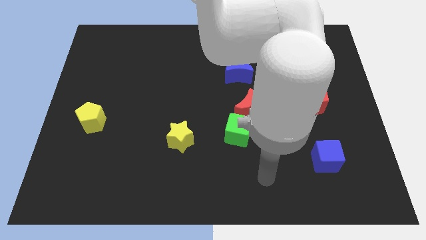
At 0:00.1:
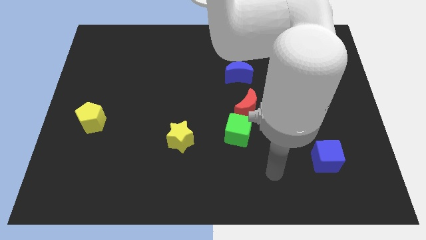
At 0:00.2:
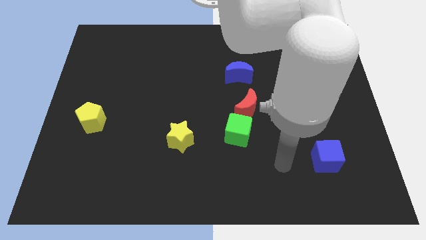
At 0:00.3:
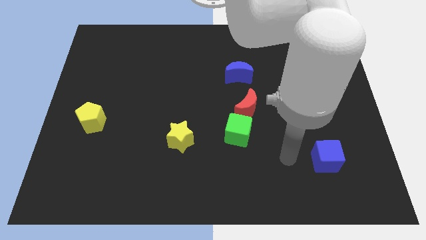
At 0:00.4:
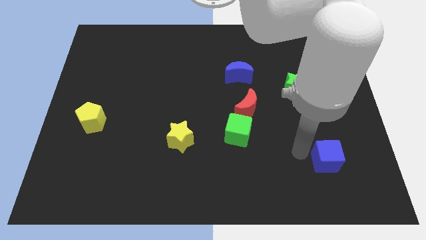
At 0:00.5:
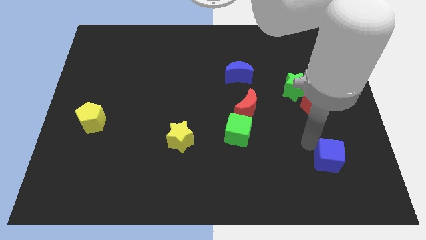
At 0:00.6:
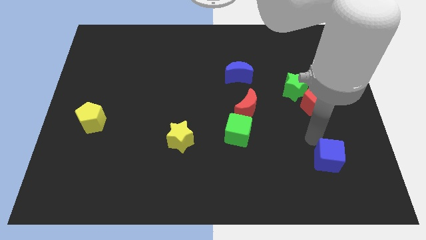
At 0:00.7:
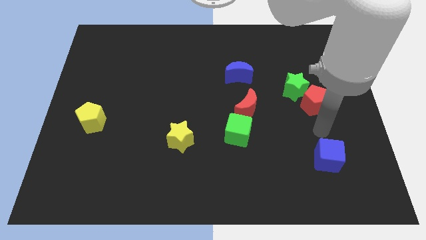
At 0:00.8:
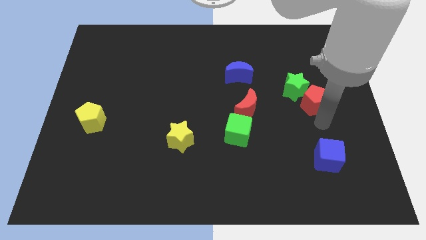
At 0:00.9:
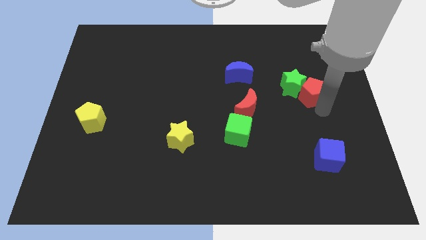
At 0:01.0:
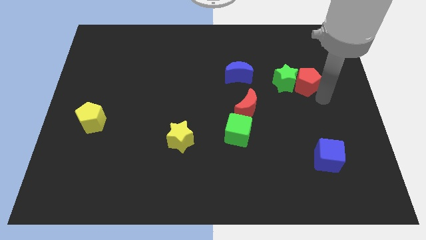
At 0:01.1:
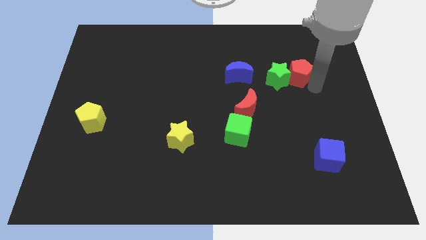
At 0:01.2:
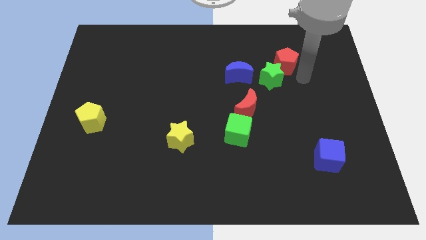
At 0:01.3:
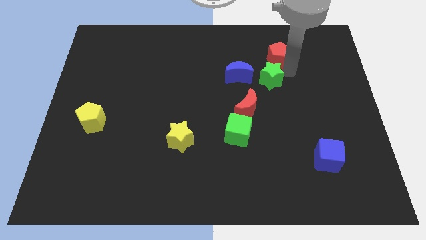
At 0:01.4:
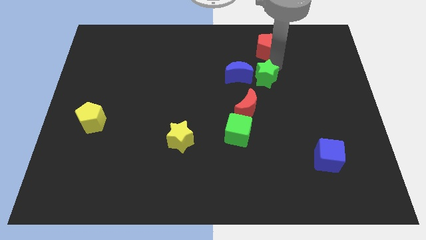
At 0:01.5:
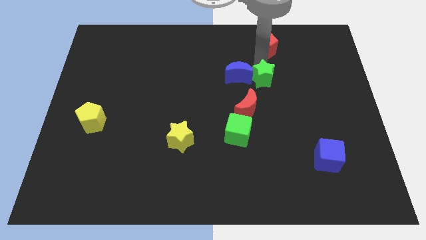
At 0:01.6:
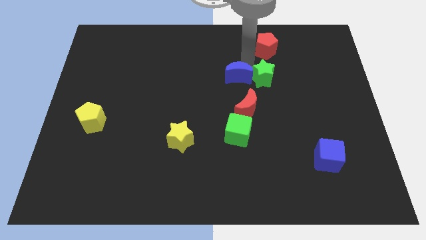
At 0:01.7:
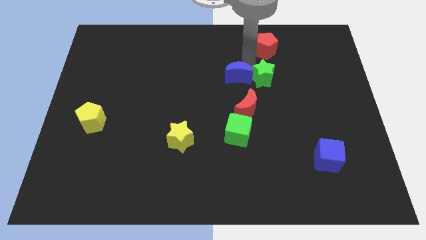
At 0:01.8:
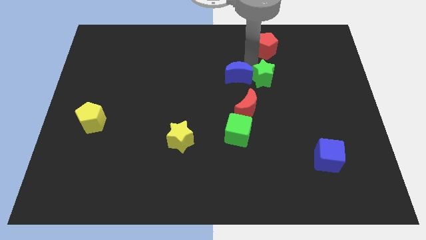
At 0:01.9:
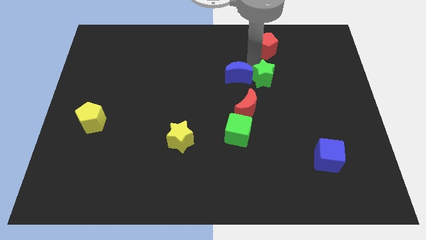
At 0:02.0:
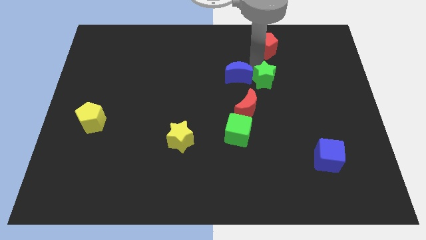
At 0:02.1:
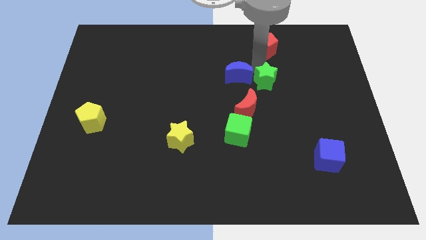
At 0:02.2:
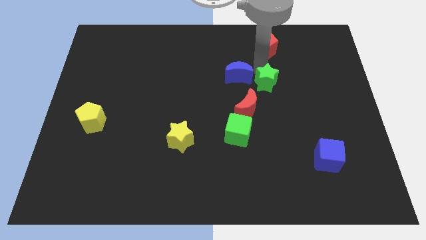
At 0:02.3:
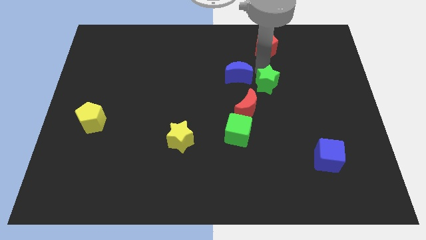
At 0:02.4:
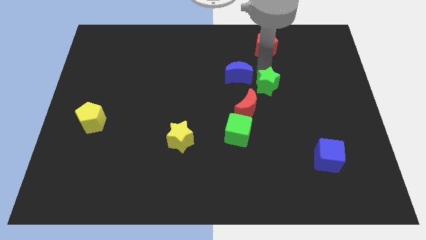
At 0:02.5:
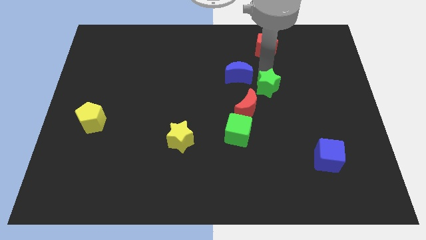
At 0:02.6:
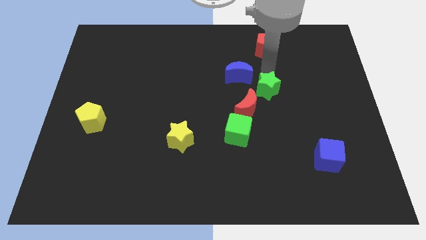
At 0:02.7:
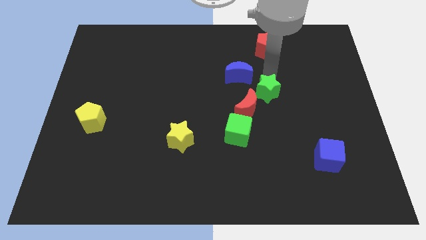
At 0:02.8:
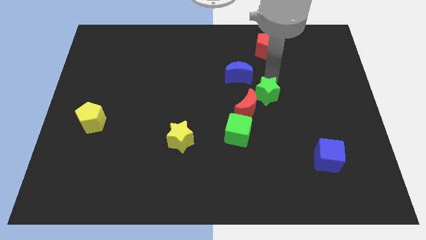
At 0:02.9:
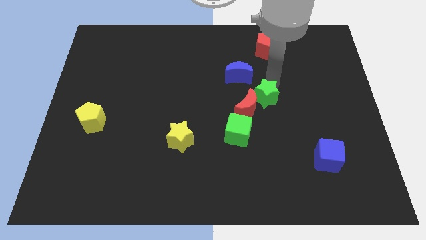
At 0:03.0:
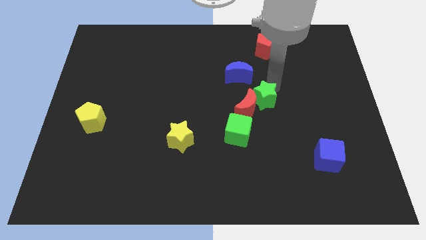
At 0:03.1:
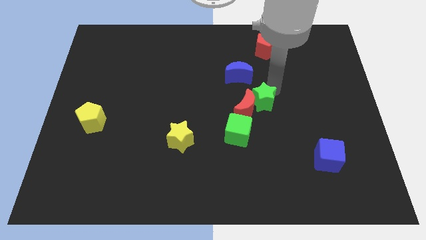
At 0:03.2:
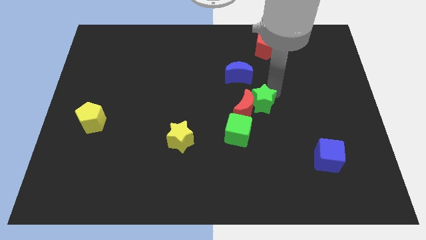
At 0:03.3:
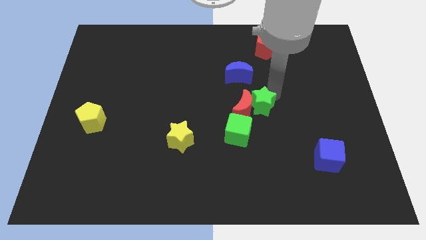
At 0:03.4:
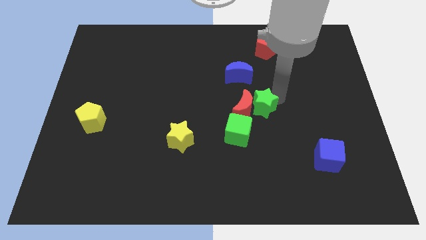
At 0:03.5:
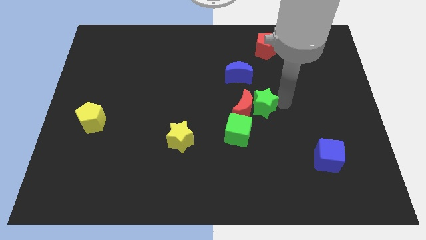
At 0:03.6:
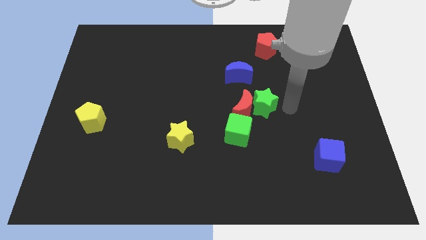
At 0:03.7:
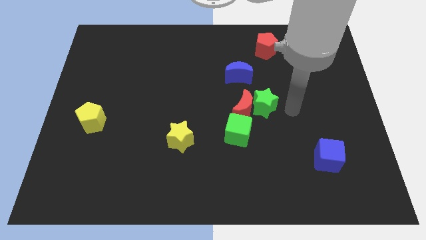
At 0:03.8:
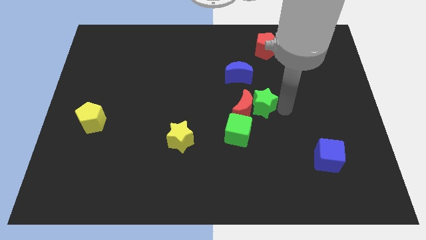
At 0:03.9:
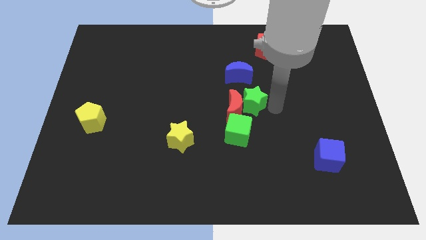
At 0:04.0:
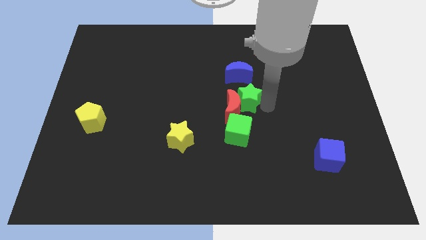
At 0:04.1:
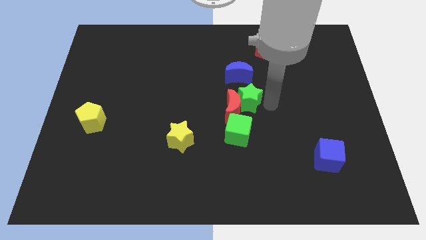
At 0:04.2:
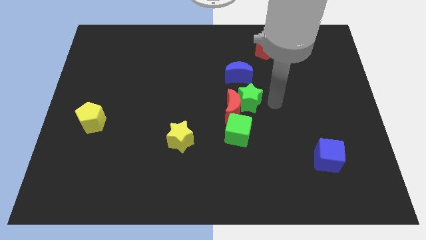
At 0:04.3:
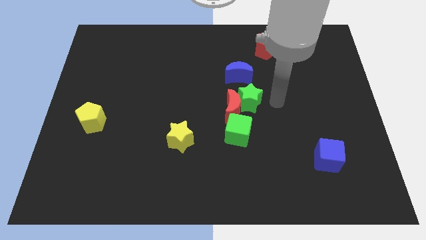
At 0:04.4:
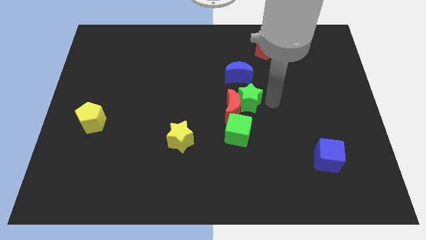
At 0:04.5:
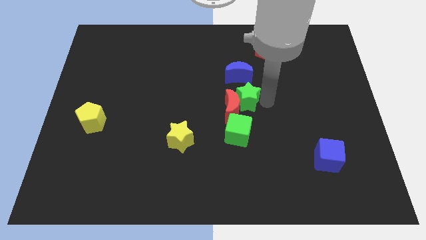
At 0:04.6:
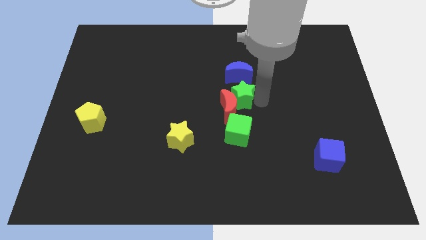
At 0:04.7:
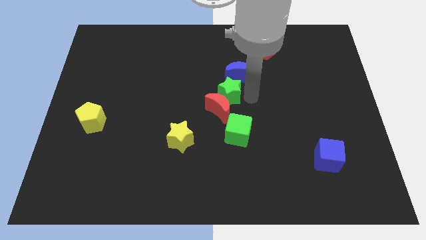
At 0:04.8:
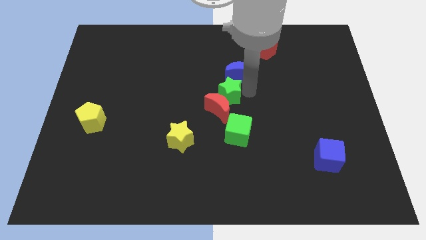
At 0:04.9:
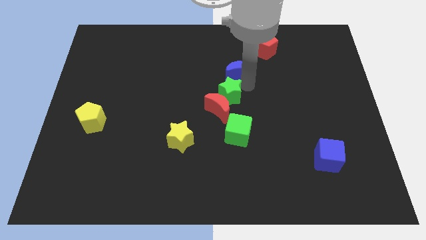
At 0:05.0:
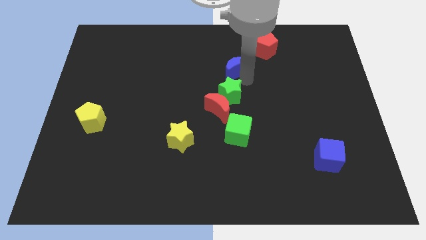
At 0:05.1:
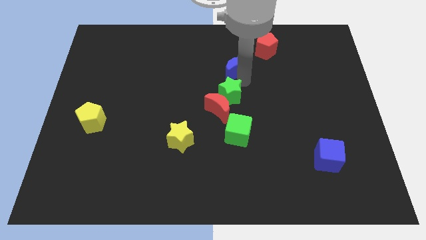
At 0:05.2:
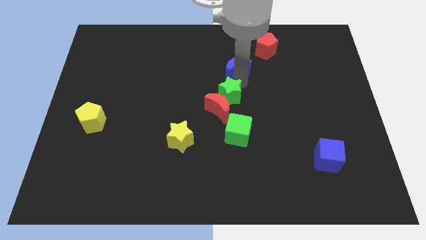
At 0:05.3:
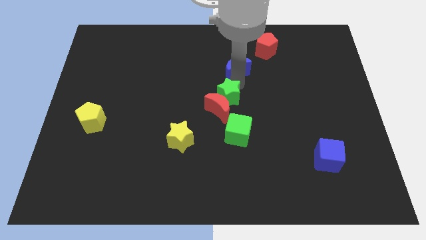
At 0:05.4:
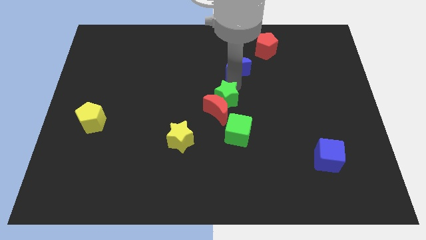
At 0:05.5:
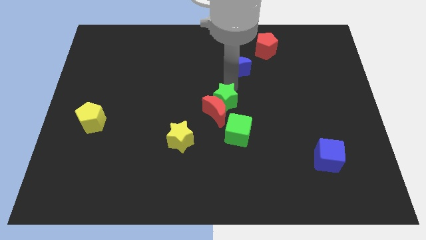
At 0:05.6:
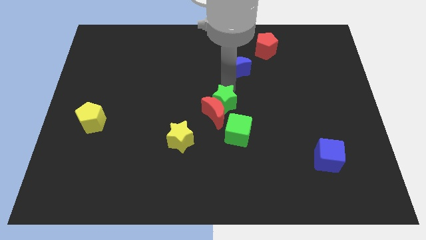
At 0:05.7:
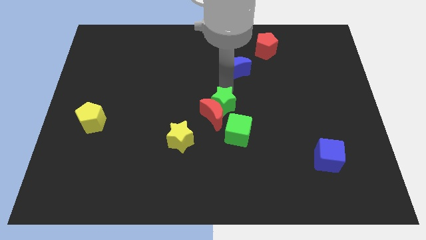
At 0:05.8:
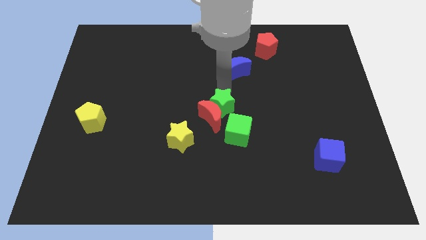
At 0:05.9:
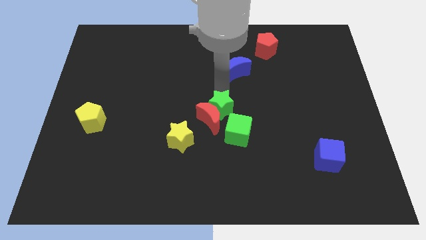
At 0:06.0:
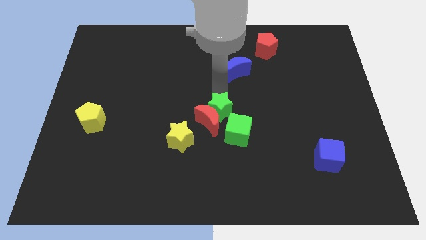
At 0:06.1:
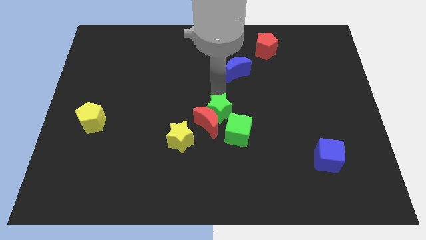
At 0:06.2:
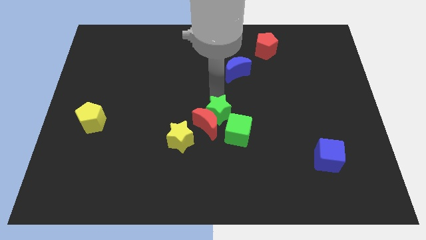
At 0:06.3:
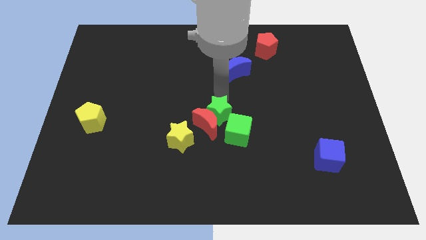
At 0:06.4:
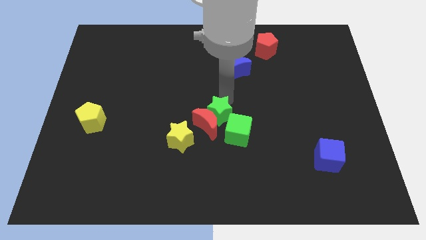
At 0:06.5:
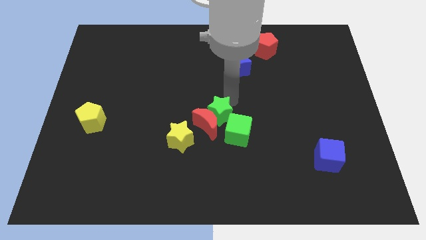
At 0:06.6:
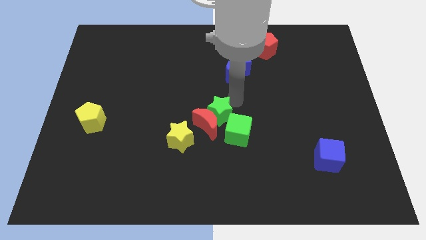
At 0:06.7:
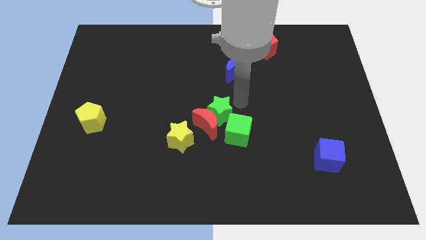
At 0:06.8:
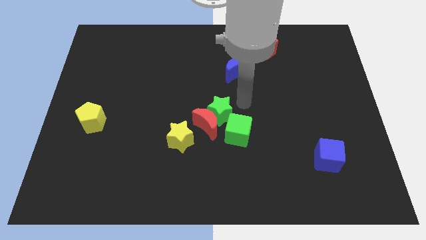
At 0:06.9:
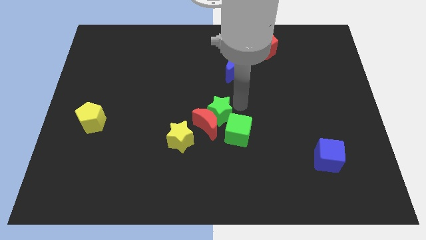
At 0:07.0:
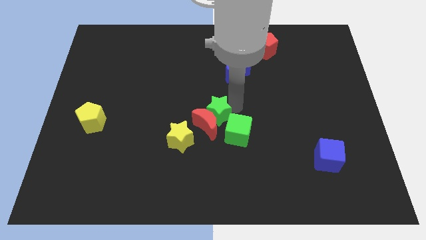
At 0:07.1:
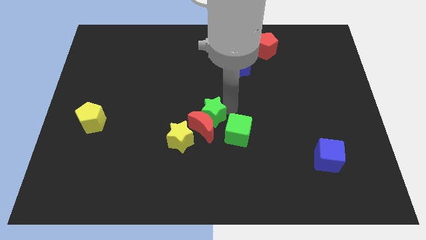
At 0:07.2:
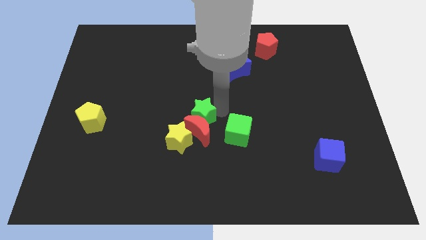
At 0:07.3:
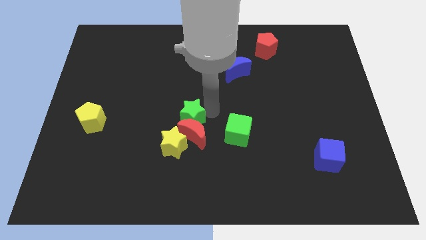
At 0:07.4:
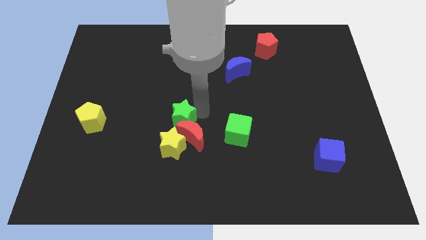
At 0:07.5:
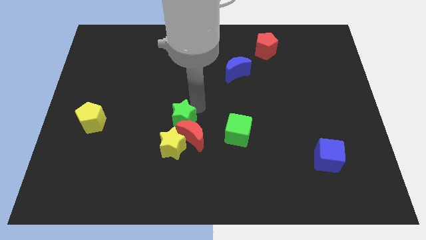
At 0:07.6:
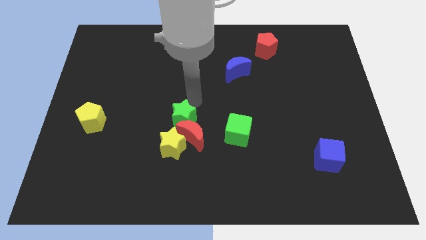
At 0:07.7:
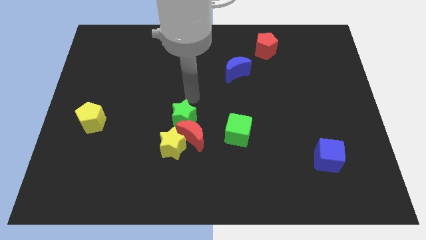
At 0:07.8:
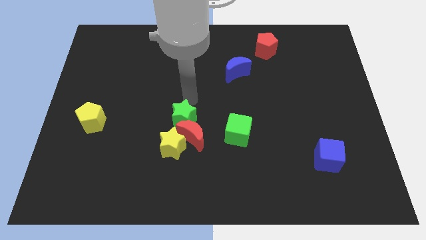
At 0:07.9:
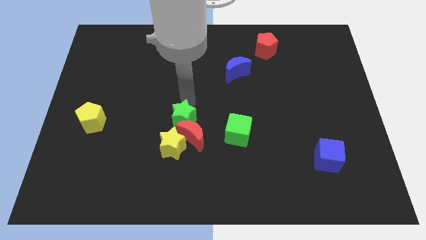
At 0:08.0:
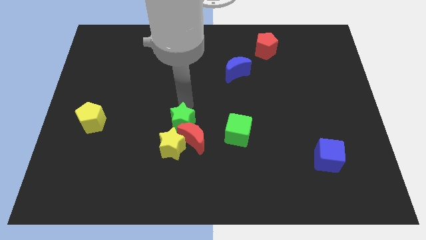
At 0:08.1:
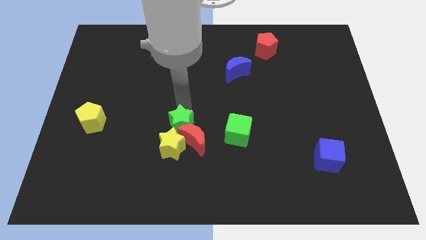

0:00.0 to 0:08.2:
push the green star close to the yellow star
